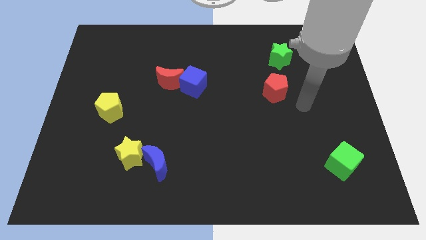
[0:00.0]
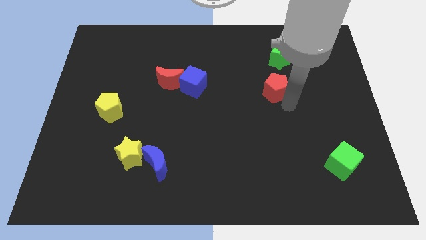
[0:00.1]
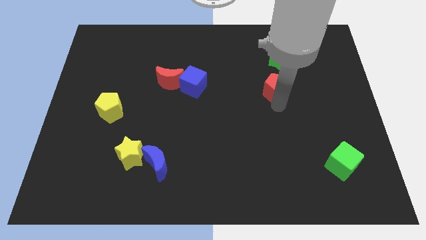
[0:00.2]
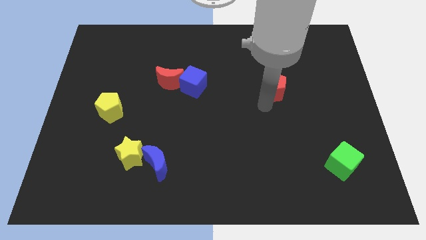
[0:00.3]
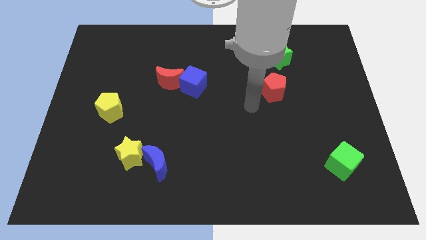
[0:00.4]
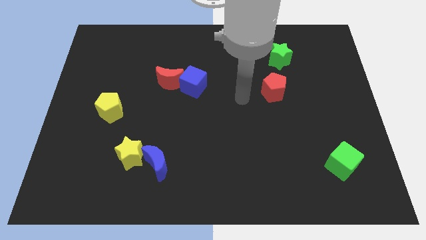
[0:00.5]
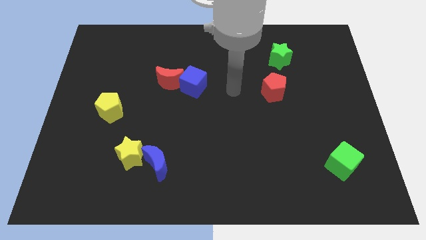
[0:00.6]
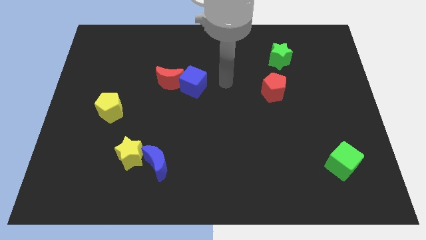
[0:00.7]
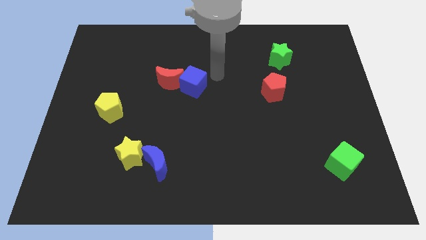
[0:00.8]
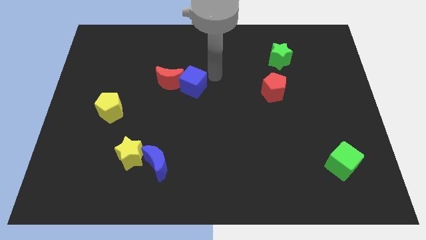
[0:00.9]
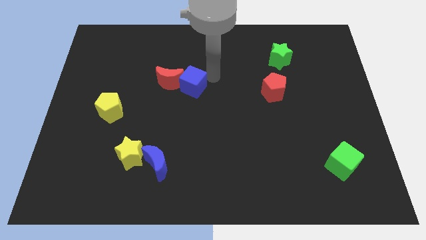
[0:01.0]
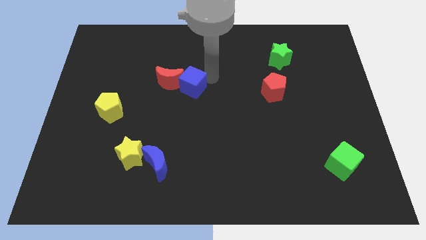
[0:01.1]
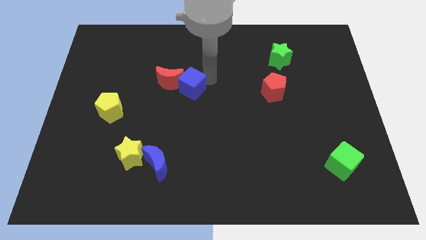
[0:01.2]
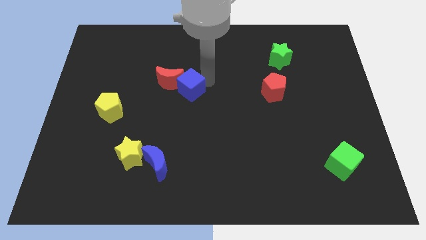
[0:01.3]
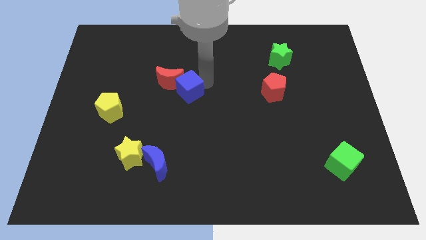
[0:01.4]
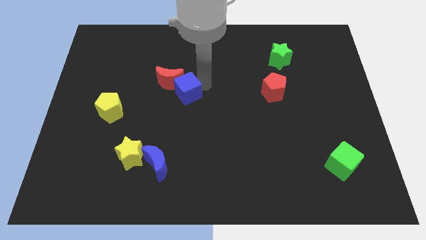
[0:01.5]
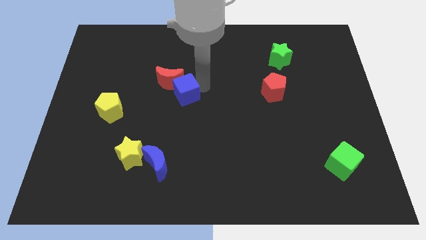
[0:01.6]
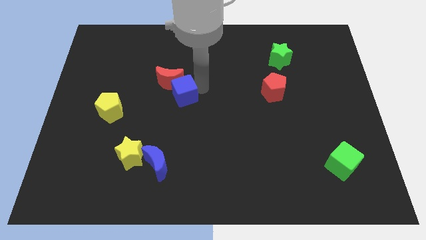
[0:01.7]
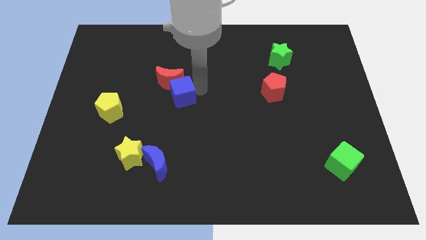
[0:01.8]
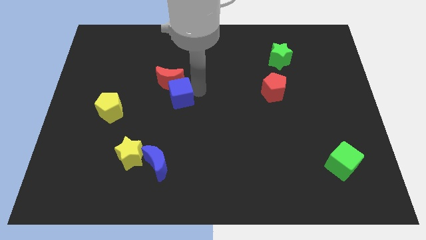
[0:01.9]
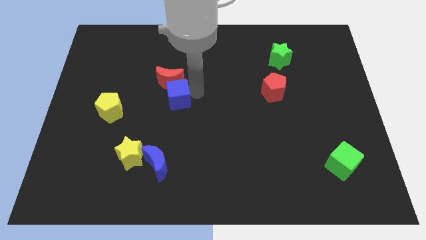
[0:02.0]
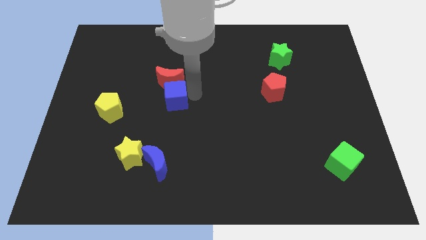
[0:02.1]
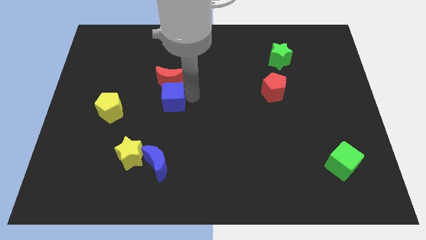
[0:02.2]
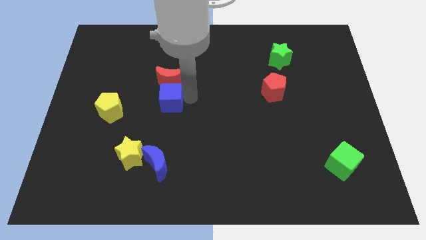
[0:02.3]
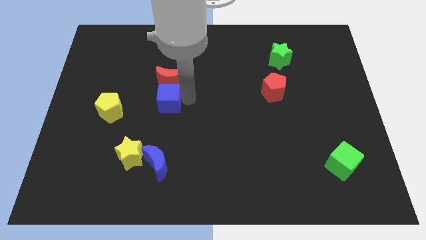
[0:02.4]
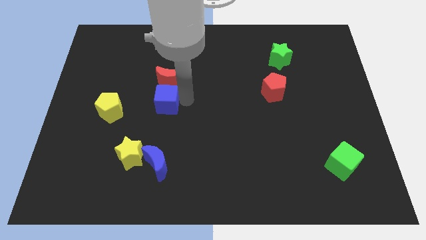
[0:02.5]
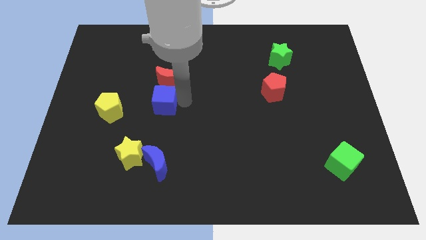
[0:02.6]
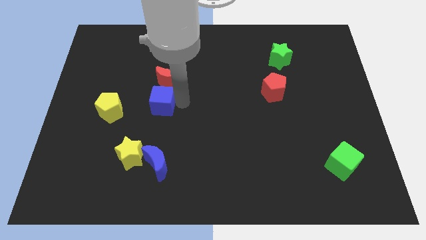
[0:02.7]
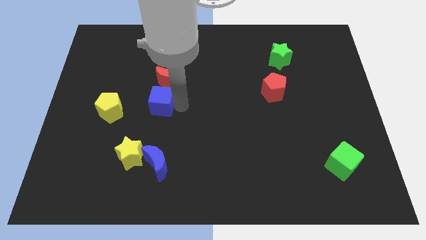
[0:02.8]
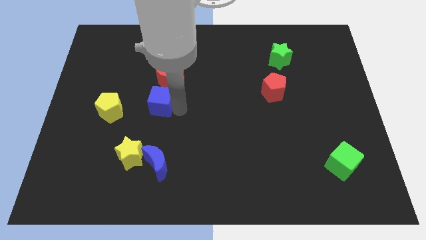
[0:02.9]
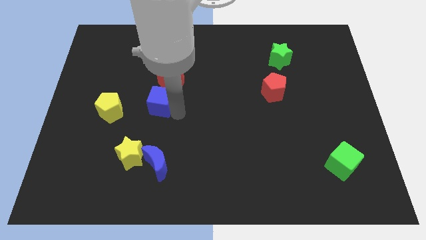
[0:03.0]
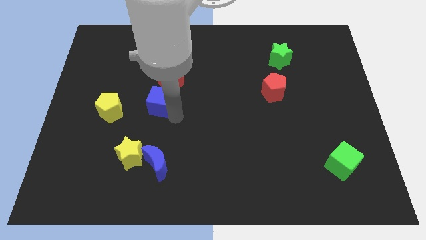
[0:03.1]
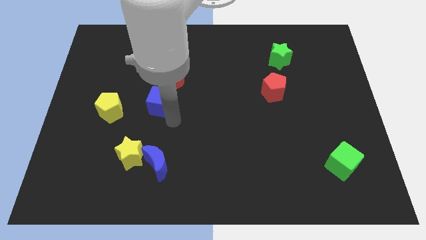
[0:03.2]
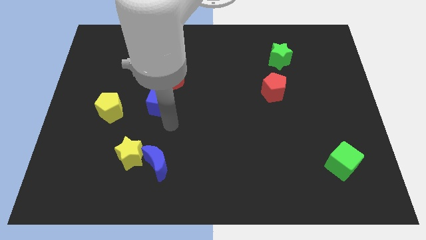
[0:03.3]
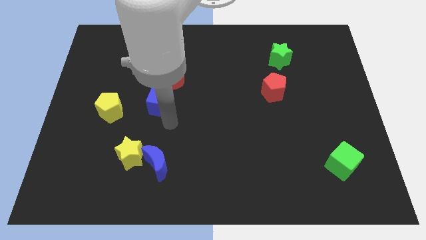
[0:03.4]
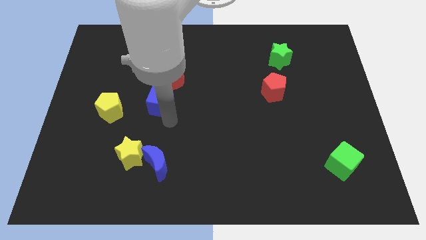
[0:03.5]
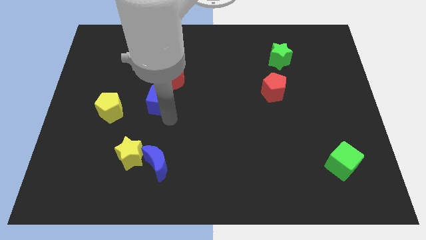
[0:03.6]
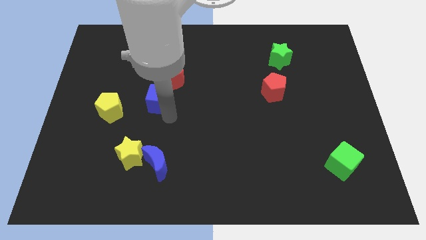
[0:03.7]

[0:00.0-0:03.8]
slightly move the blue cube left

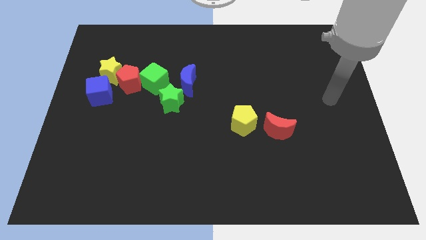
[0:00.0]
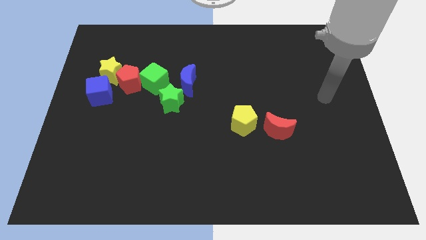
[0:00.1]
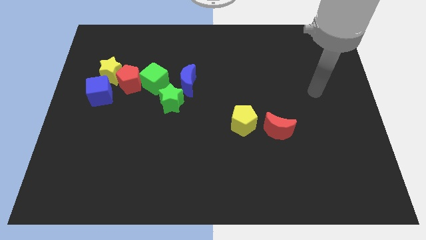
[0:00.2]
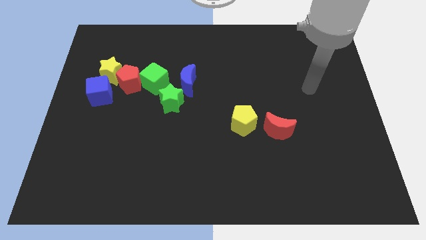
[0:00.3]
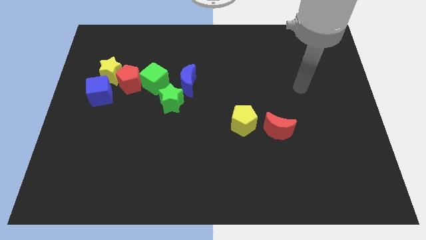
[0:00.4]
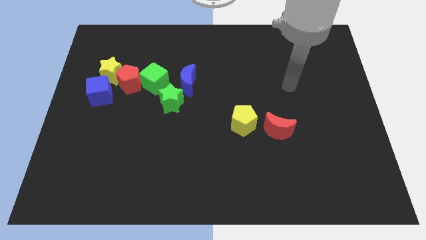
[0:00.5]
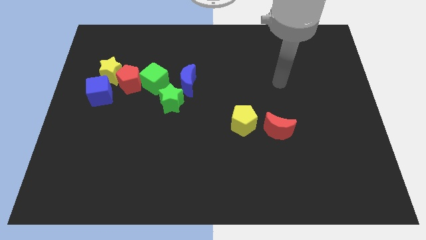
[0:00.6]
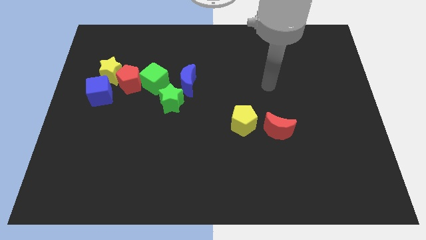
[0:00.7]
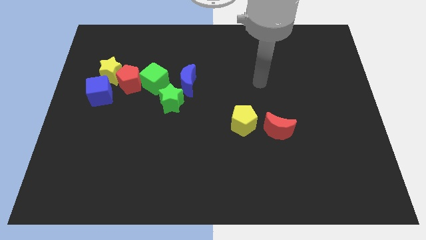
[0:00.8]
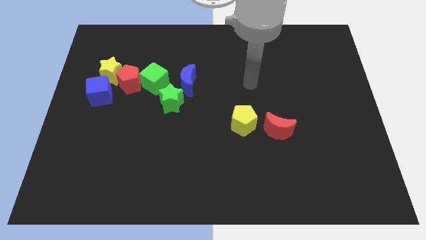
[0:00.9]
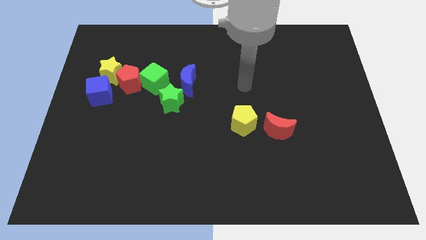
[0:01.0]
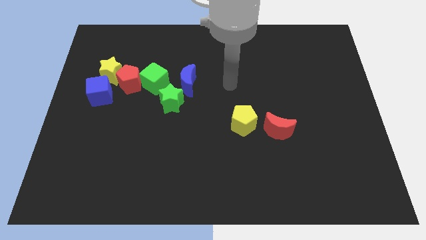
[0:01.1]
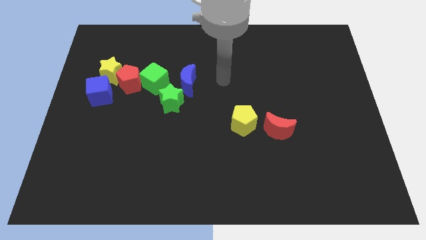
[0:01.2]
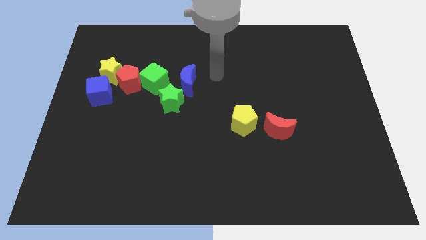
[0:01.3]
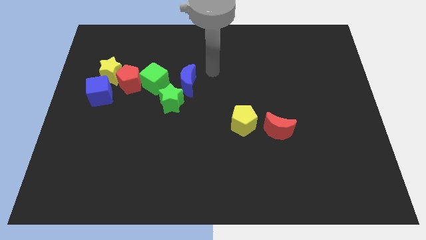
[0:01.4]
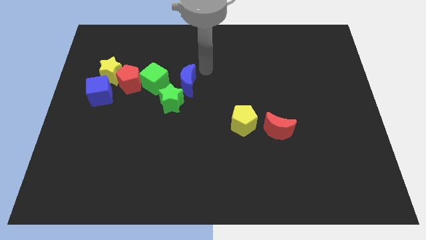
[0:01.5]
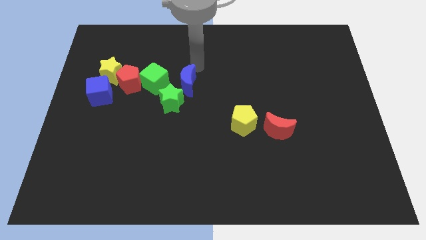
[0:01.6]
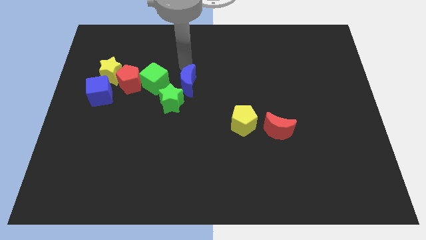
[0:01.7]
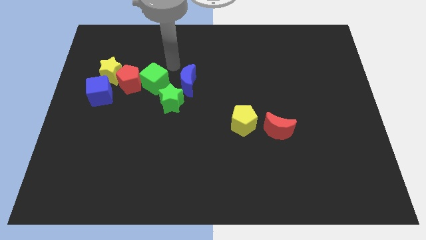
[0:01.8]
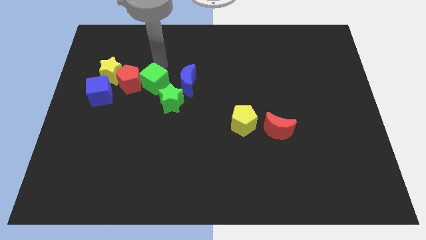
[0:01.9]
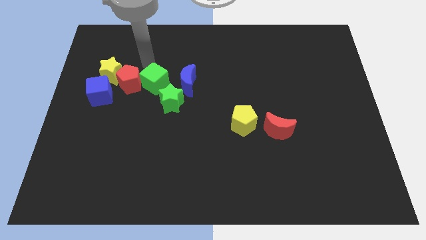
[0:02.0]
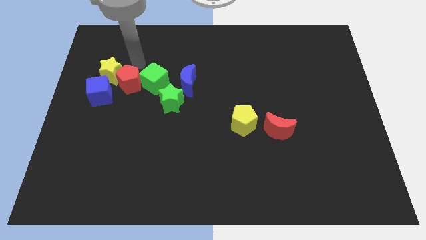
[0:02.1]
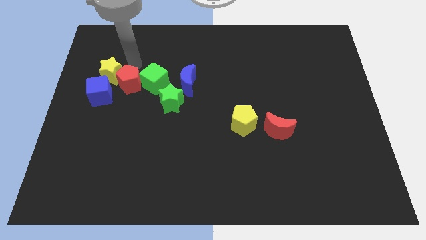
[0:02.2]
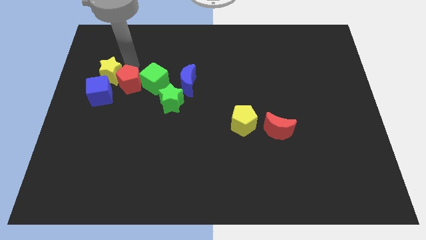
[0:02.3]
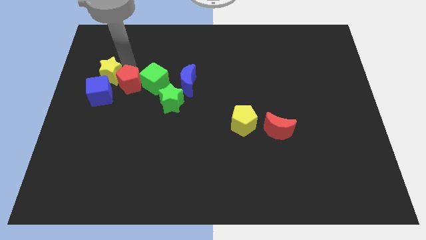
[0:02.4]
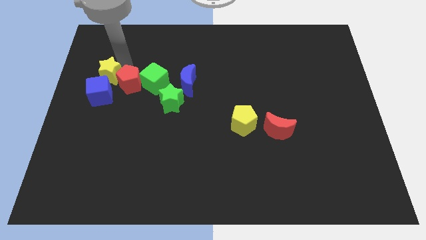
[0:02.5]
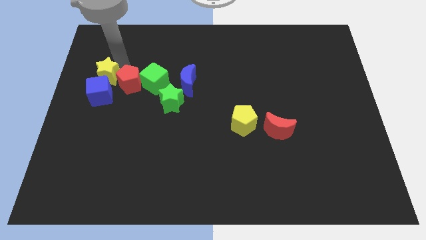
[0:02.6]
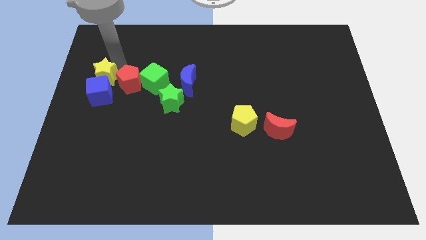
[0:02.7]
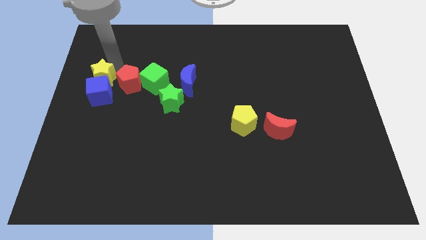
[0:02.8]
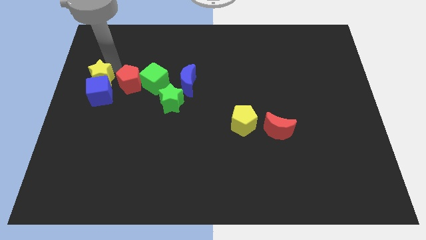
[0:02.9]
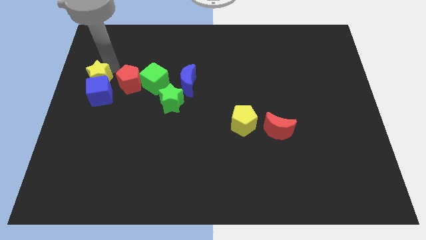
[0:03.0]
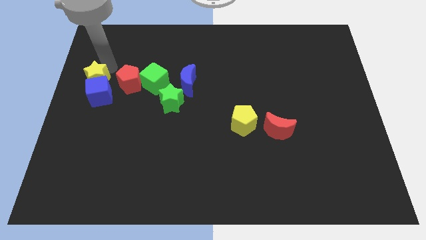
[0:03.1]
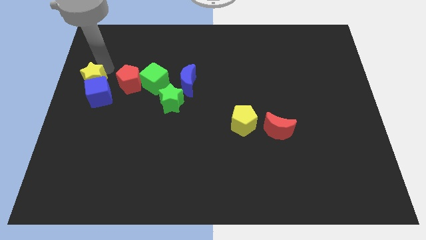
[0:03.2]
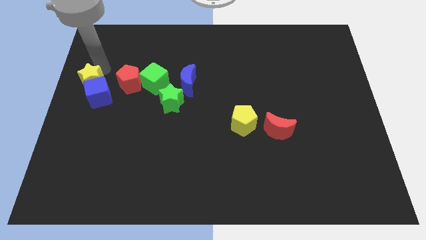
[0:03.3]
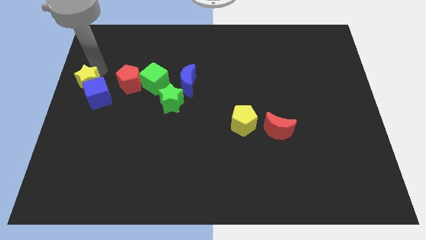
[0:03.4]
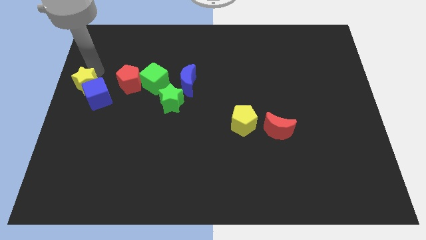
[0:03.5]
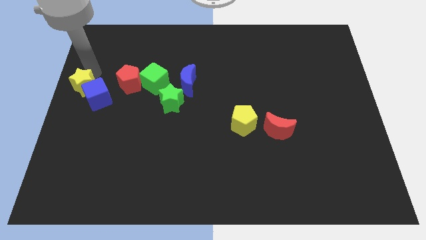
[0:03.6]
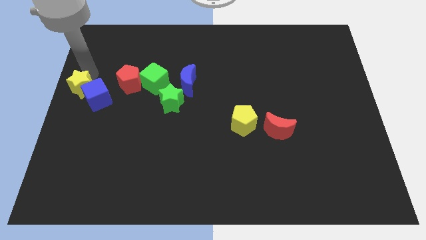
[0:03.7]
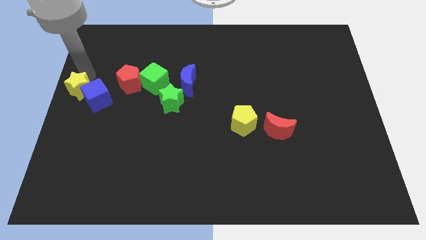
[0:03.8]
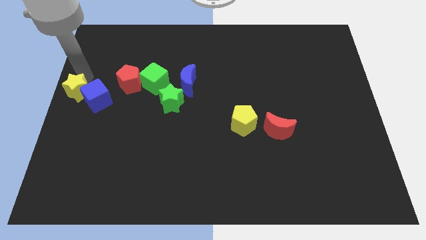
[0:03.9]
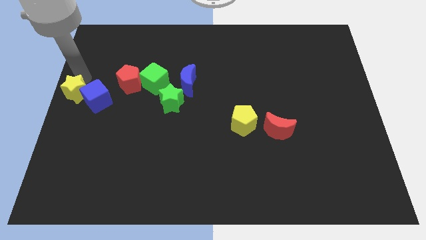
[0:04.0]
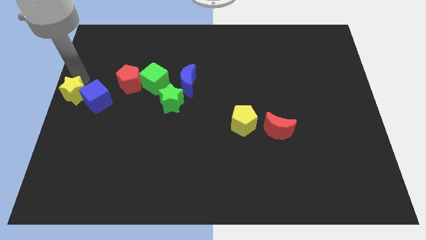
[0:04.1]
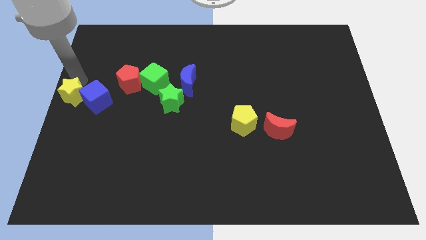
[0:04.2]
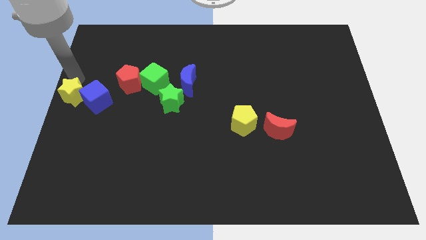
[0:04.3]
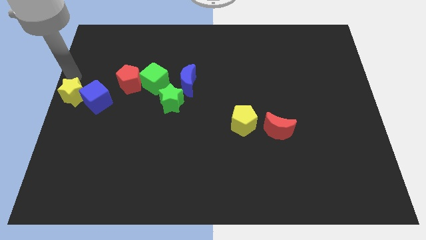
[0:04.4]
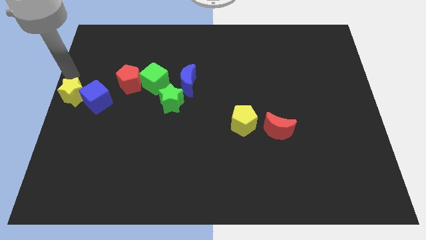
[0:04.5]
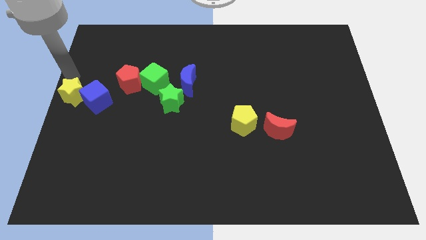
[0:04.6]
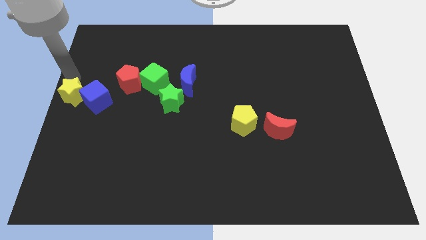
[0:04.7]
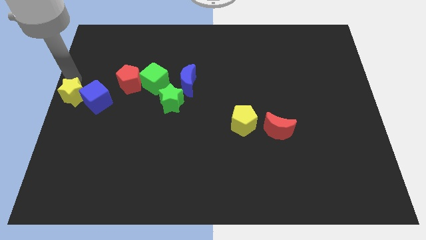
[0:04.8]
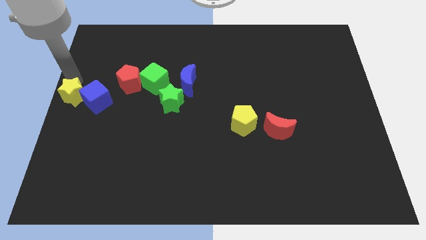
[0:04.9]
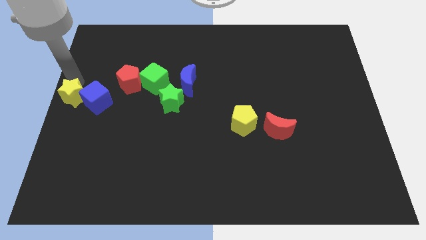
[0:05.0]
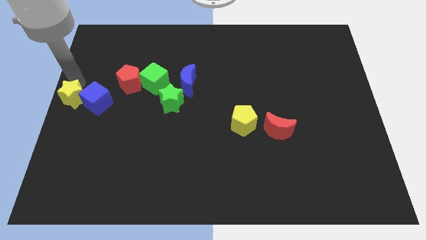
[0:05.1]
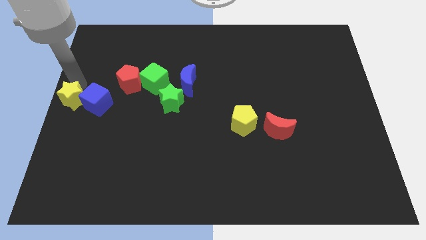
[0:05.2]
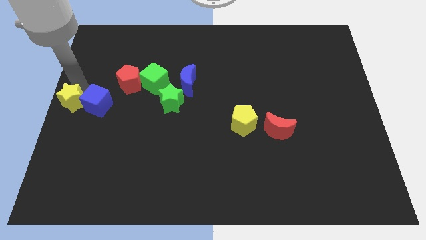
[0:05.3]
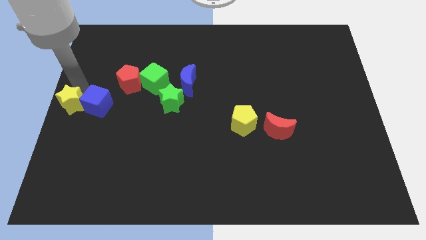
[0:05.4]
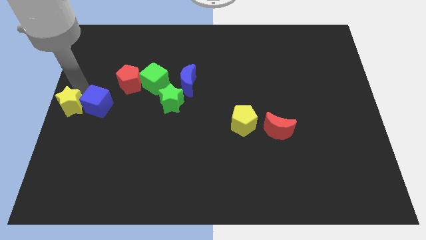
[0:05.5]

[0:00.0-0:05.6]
push the yellow star a bit down
